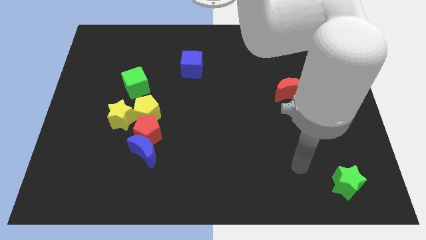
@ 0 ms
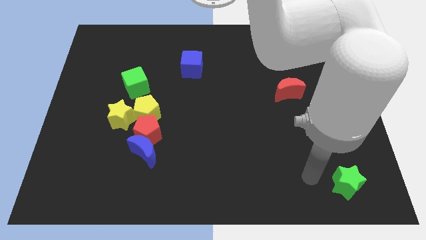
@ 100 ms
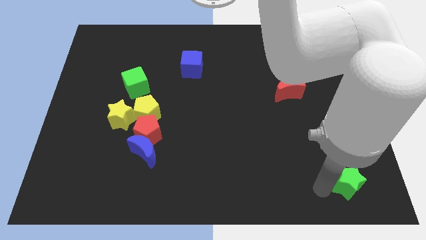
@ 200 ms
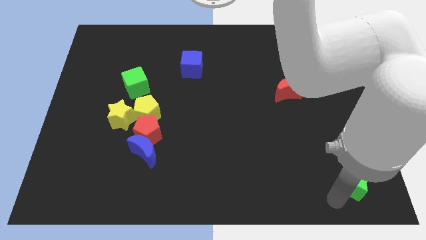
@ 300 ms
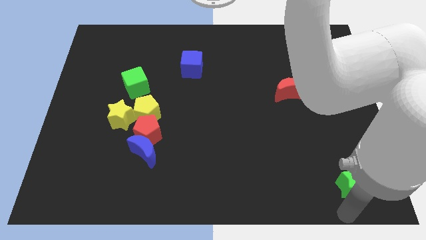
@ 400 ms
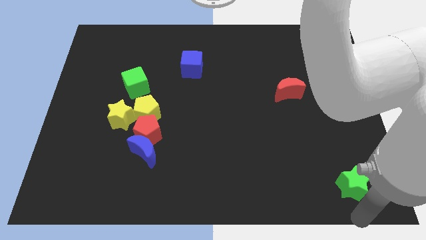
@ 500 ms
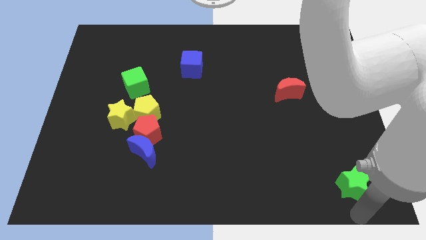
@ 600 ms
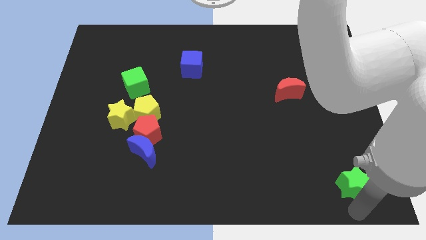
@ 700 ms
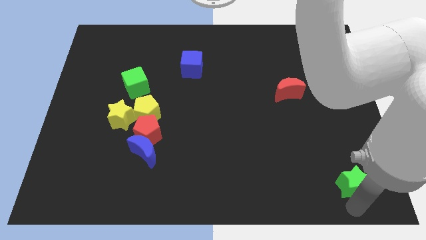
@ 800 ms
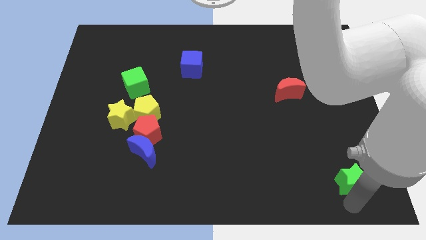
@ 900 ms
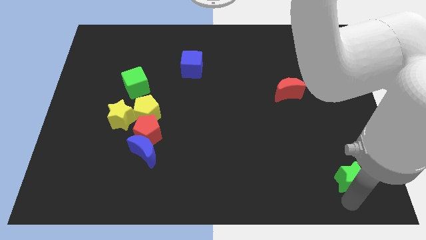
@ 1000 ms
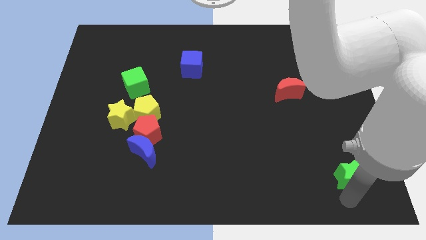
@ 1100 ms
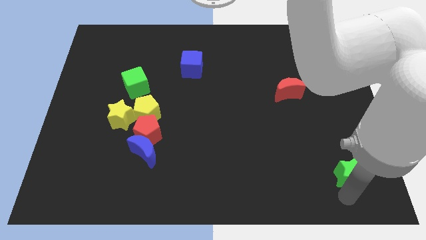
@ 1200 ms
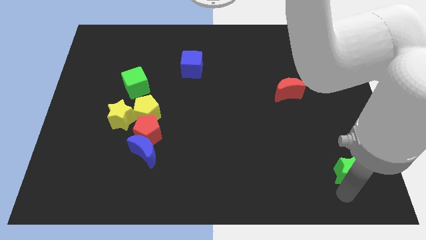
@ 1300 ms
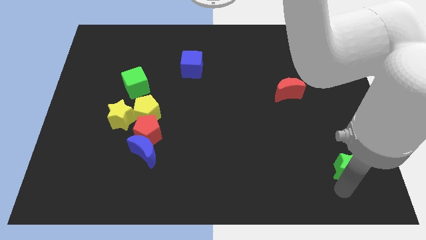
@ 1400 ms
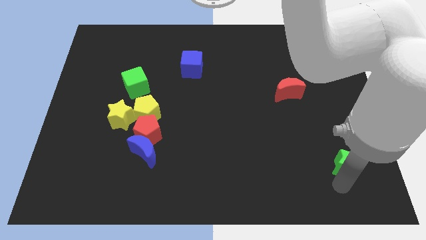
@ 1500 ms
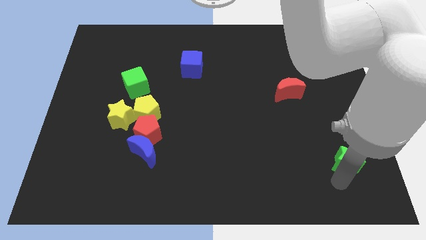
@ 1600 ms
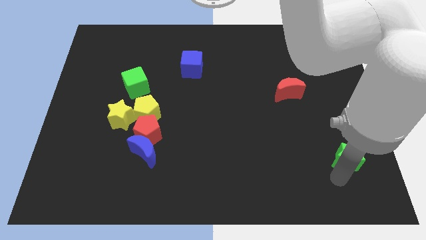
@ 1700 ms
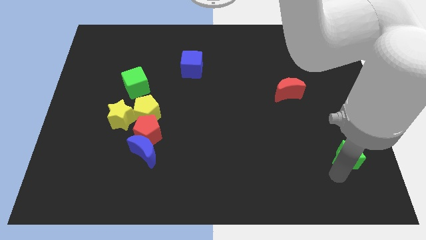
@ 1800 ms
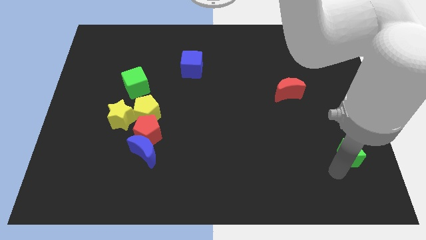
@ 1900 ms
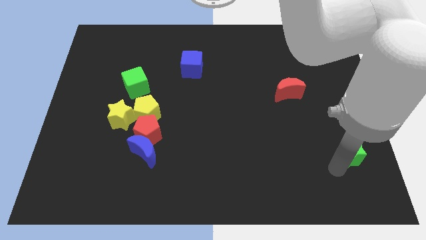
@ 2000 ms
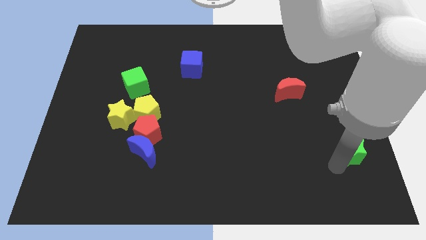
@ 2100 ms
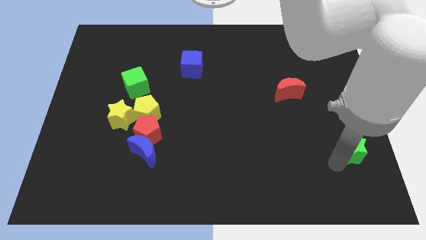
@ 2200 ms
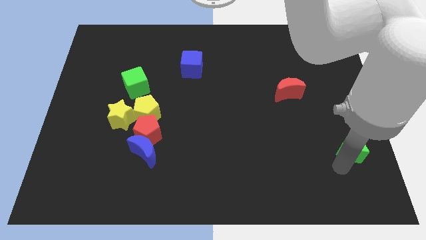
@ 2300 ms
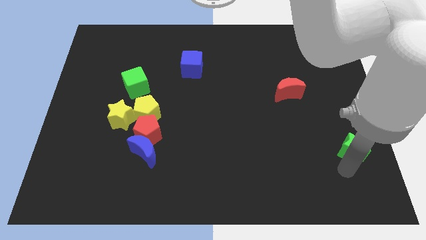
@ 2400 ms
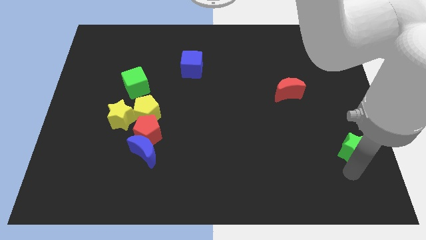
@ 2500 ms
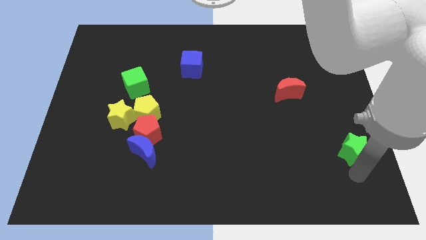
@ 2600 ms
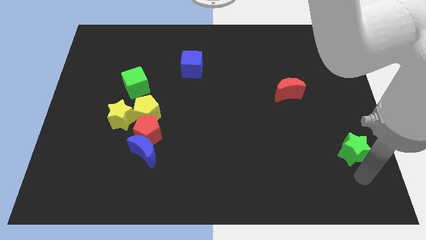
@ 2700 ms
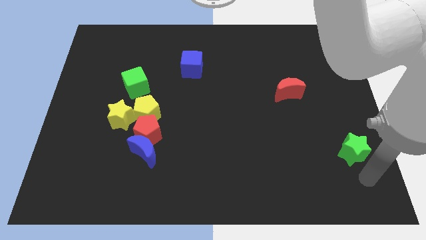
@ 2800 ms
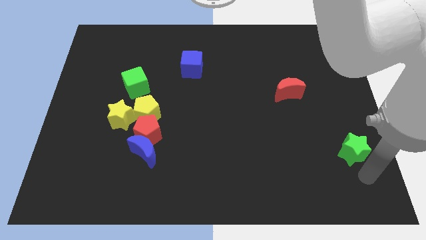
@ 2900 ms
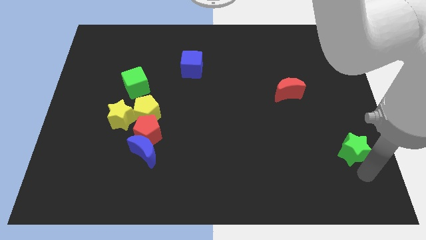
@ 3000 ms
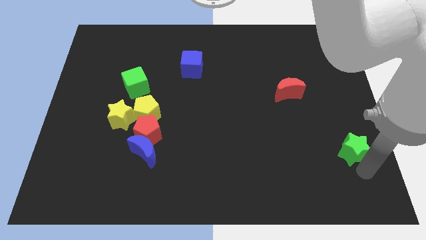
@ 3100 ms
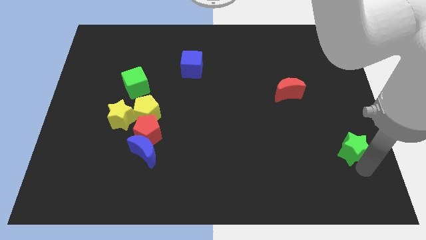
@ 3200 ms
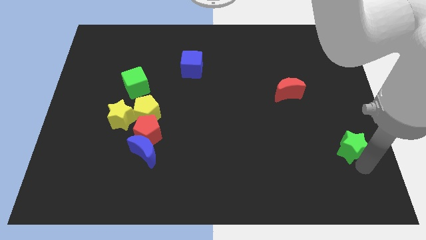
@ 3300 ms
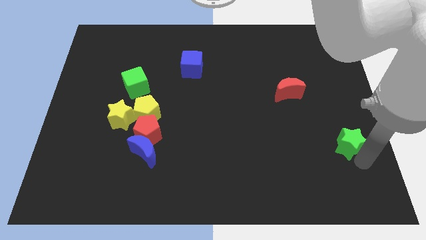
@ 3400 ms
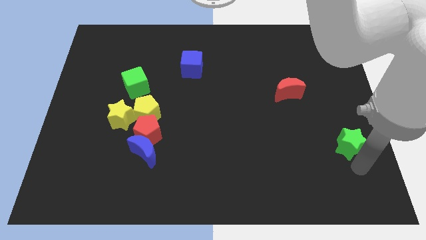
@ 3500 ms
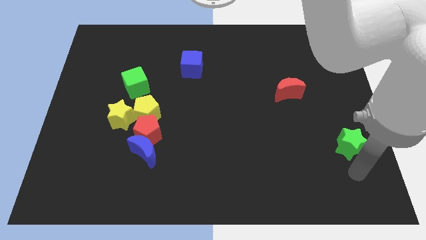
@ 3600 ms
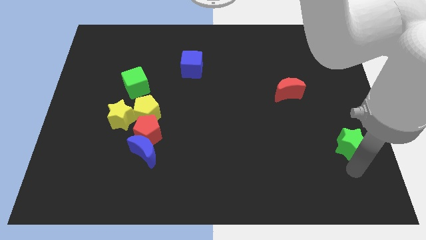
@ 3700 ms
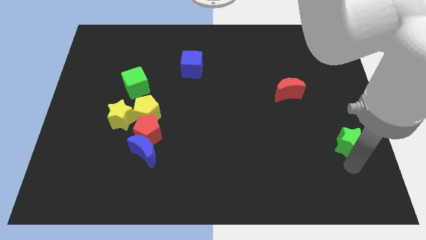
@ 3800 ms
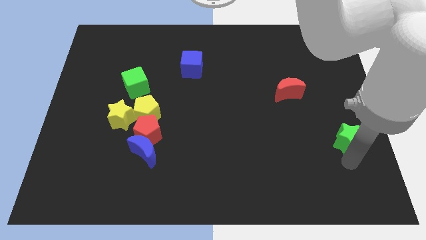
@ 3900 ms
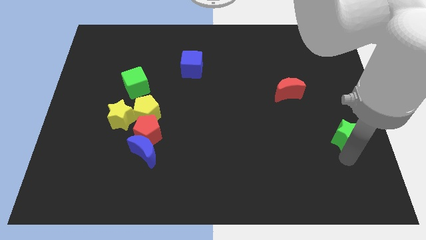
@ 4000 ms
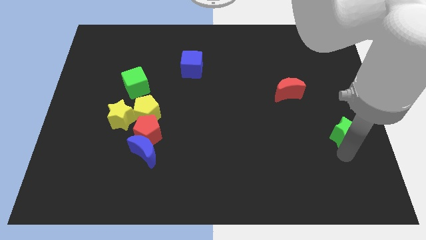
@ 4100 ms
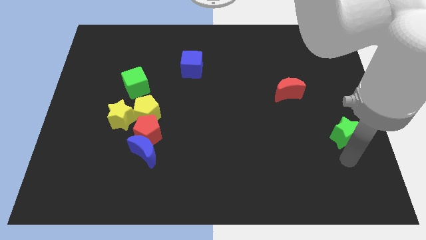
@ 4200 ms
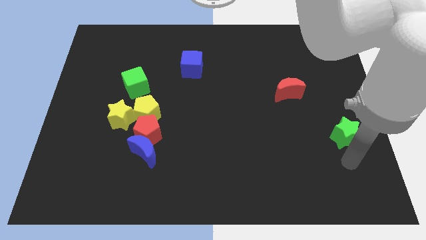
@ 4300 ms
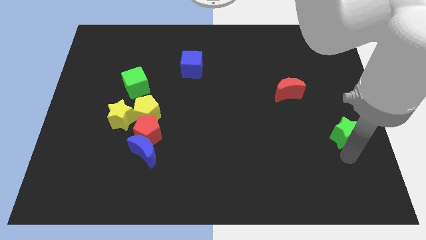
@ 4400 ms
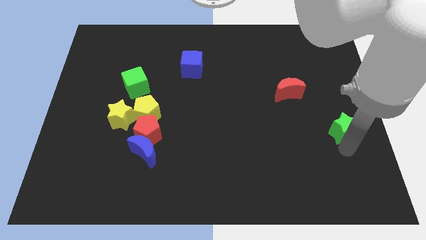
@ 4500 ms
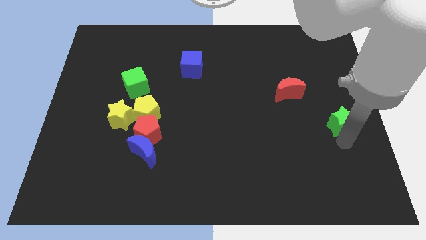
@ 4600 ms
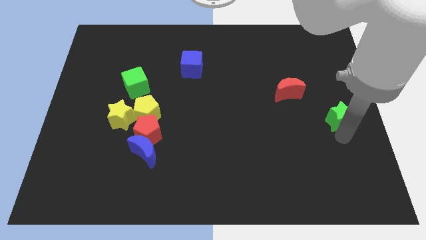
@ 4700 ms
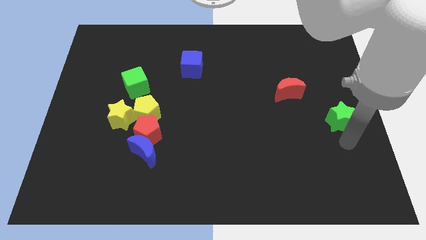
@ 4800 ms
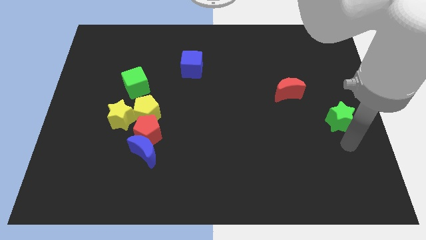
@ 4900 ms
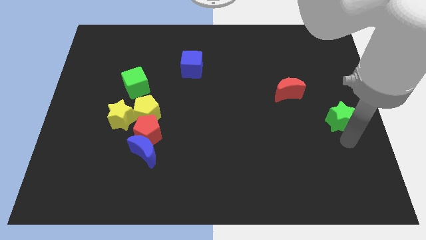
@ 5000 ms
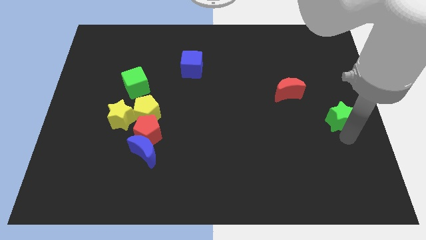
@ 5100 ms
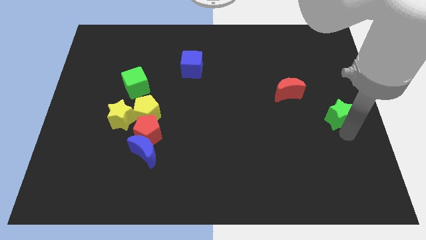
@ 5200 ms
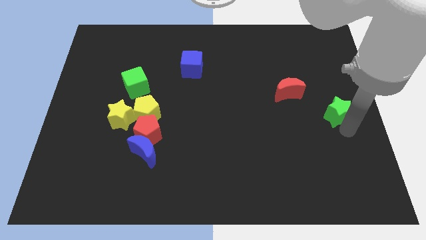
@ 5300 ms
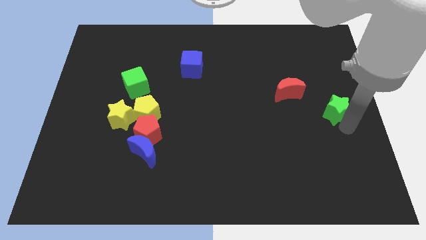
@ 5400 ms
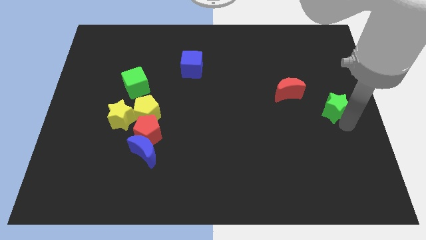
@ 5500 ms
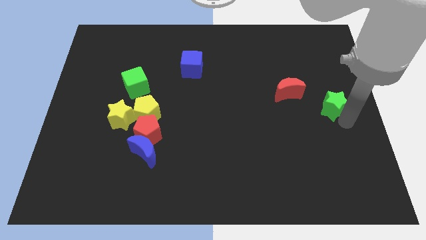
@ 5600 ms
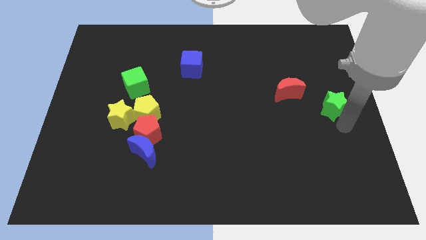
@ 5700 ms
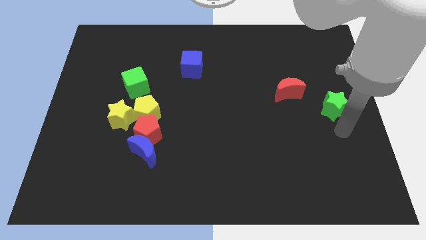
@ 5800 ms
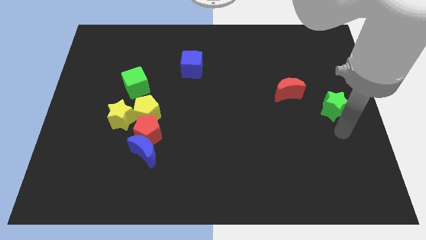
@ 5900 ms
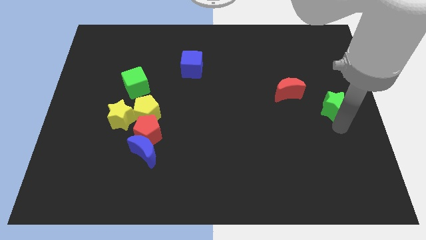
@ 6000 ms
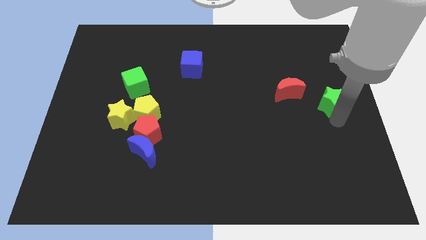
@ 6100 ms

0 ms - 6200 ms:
slide the green star upwards

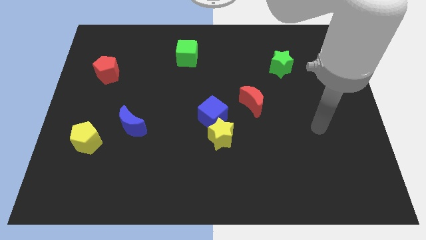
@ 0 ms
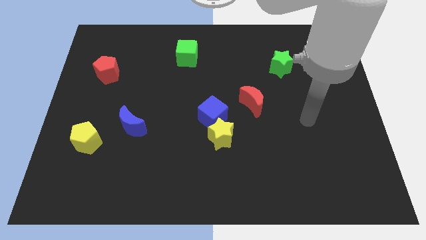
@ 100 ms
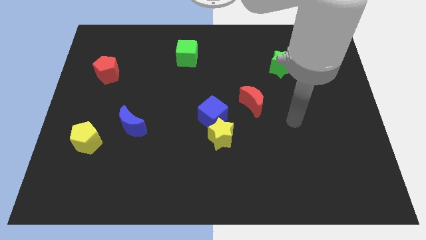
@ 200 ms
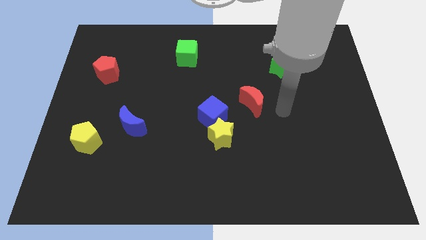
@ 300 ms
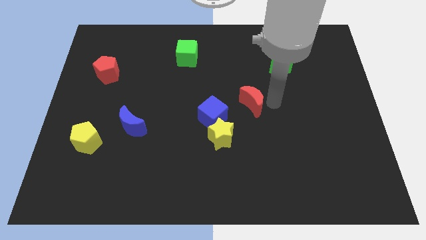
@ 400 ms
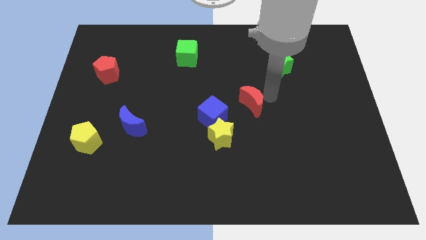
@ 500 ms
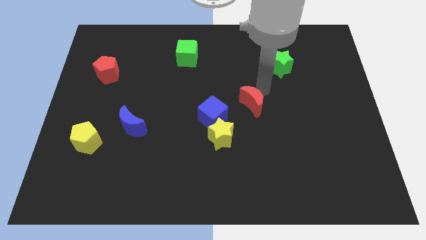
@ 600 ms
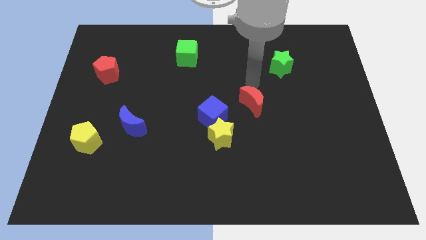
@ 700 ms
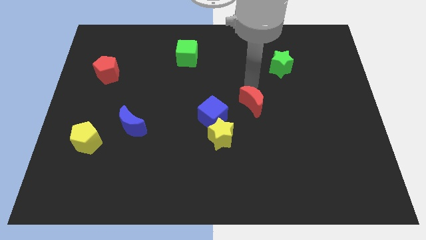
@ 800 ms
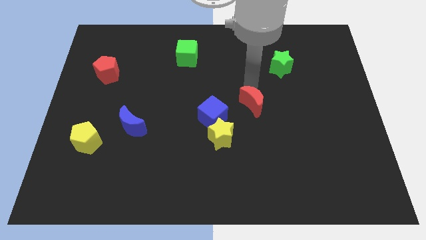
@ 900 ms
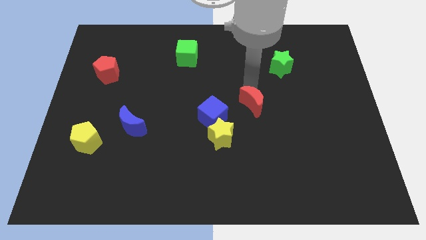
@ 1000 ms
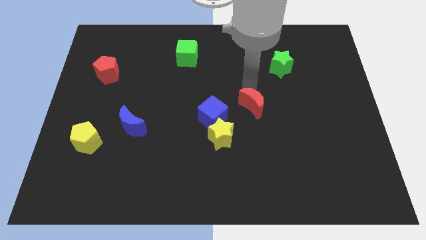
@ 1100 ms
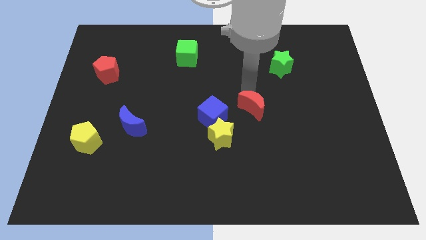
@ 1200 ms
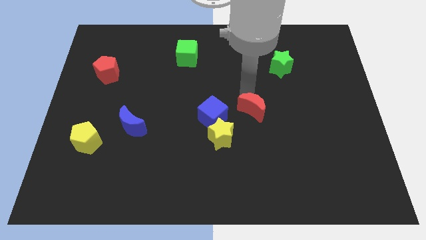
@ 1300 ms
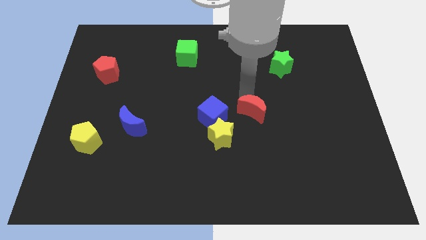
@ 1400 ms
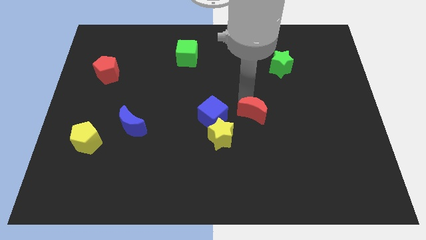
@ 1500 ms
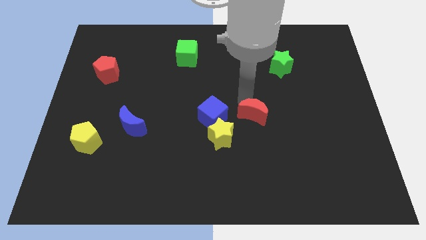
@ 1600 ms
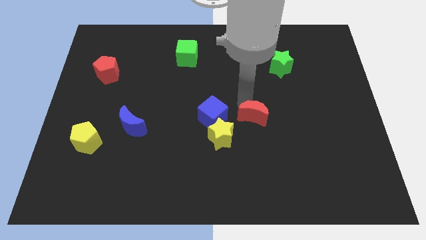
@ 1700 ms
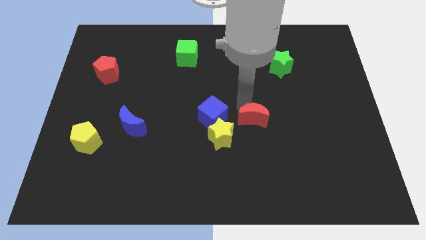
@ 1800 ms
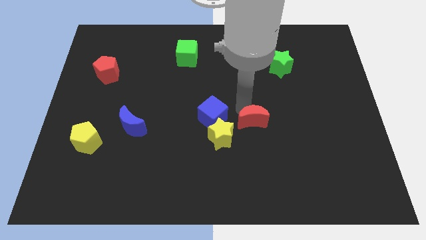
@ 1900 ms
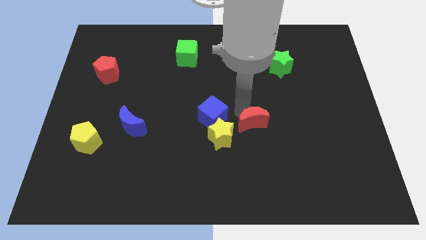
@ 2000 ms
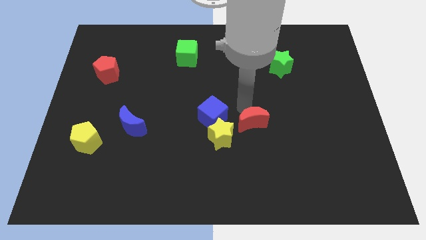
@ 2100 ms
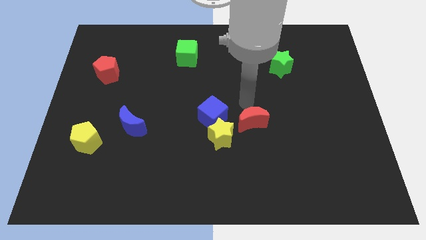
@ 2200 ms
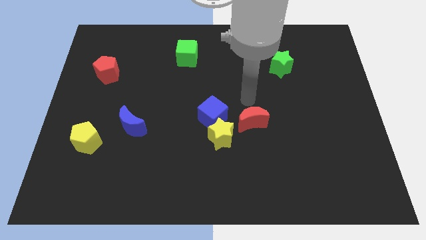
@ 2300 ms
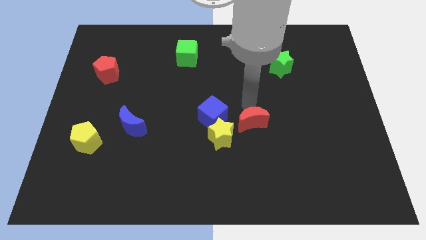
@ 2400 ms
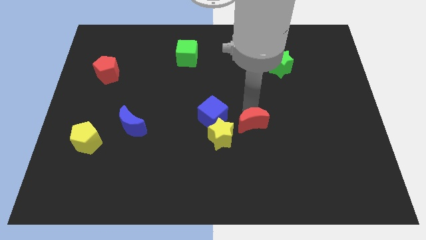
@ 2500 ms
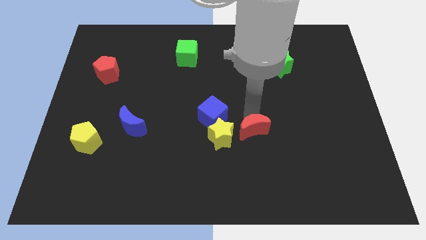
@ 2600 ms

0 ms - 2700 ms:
slightly push the red moon downwards
